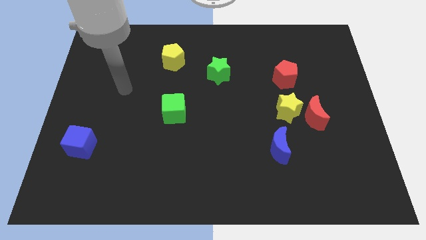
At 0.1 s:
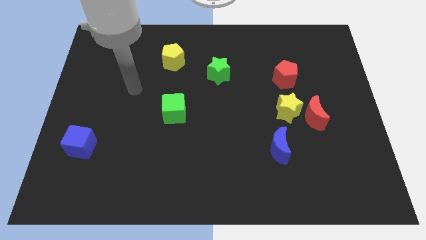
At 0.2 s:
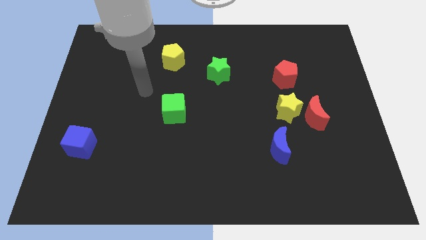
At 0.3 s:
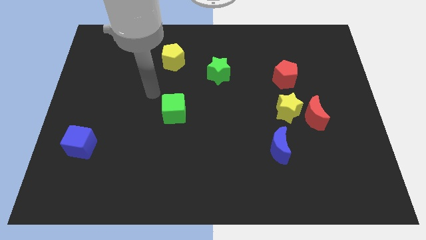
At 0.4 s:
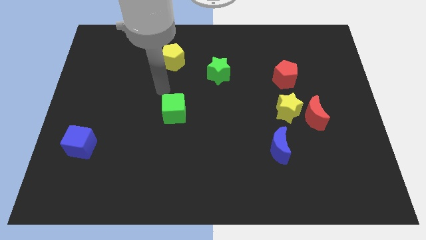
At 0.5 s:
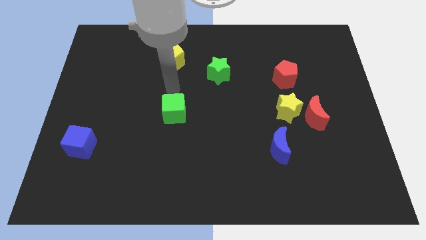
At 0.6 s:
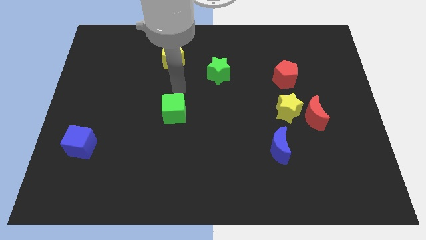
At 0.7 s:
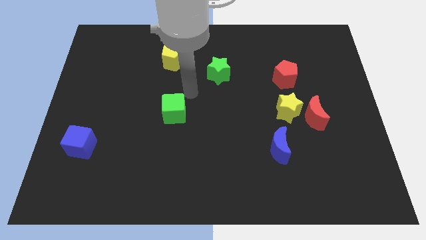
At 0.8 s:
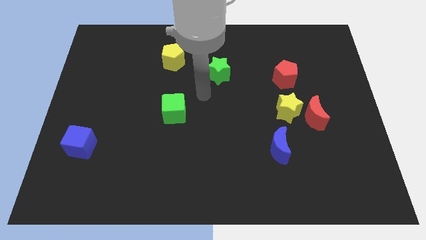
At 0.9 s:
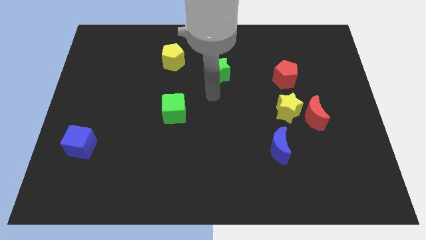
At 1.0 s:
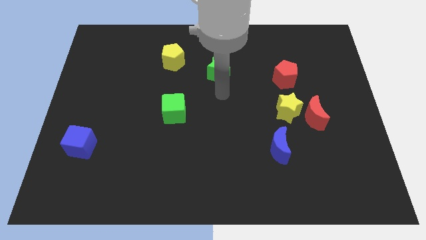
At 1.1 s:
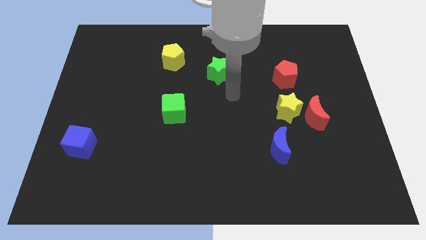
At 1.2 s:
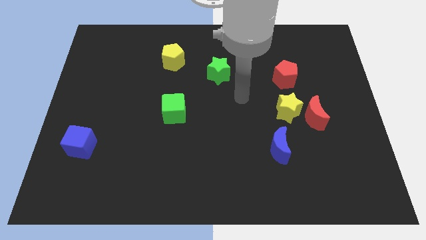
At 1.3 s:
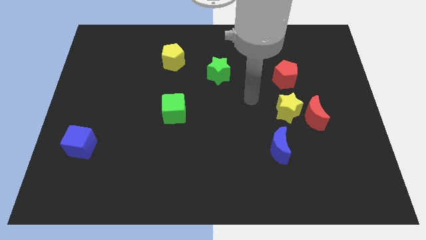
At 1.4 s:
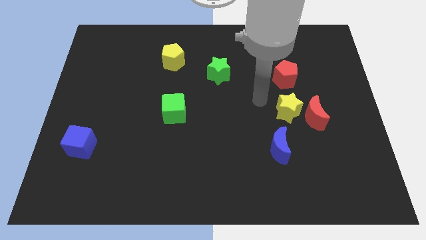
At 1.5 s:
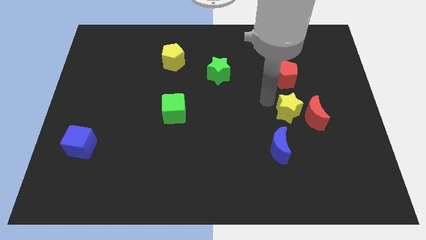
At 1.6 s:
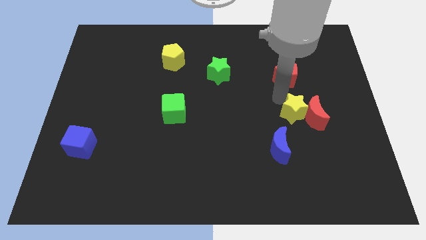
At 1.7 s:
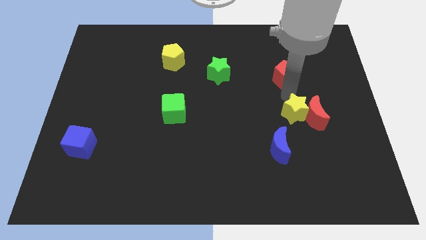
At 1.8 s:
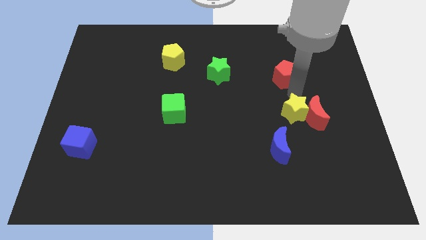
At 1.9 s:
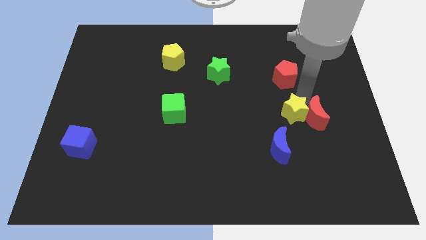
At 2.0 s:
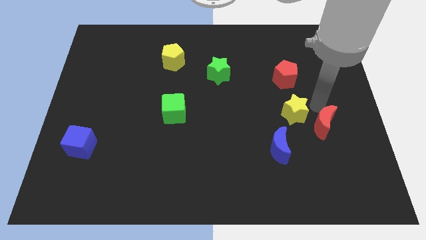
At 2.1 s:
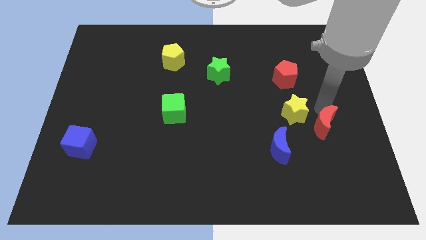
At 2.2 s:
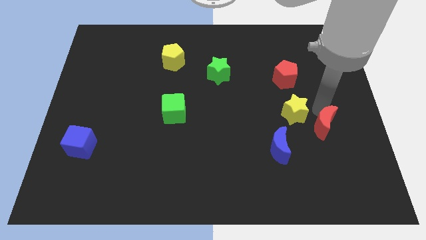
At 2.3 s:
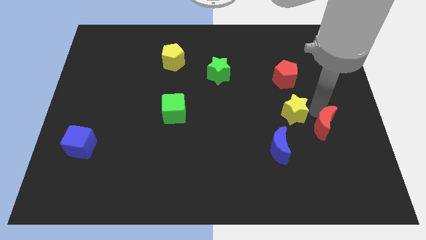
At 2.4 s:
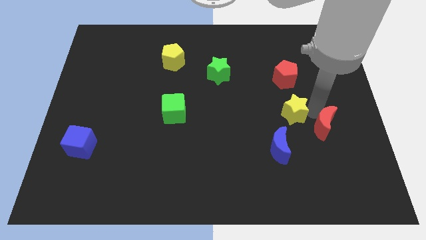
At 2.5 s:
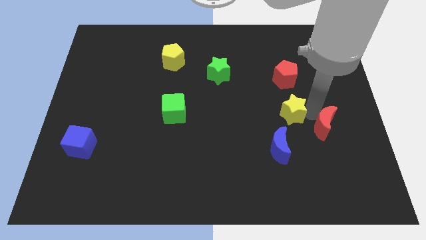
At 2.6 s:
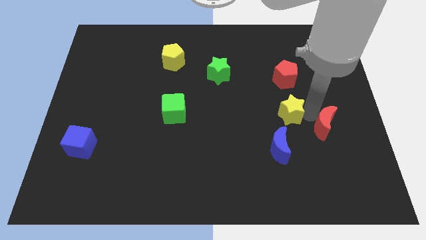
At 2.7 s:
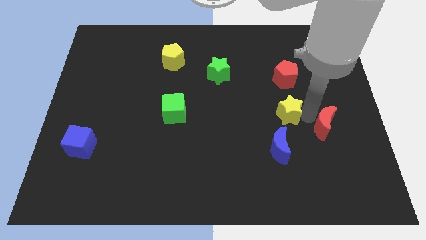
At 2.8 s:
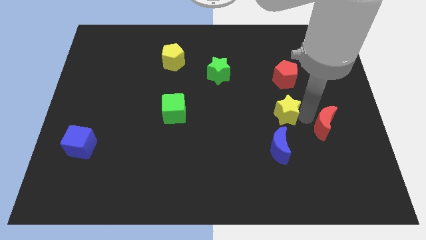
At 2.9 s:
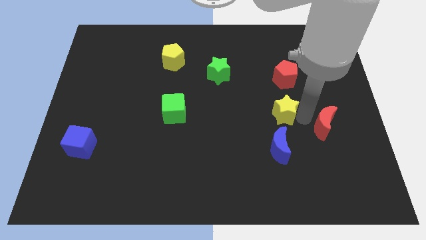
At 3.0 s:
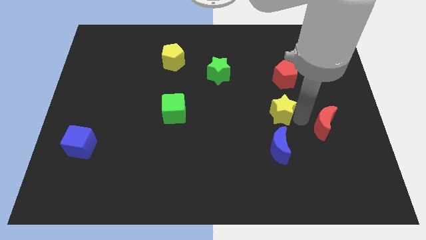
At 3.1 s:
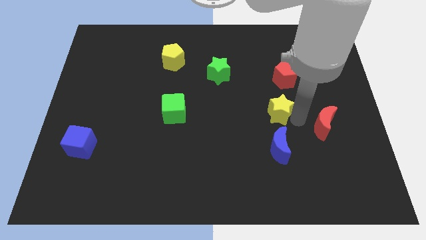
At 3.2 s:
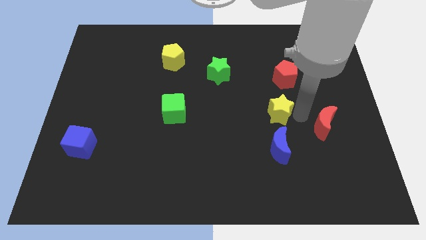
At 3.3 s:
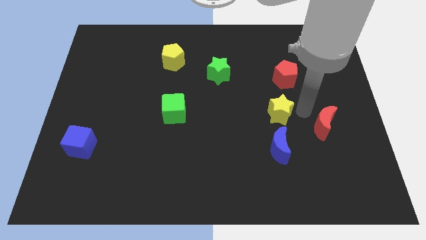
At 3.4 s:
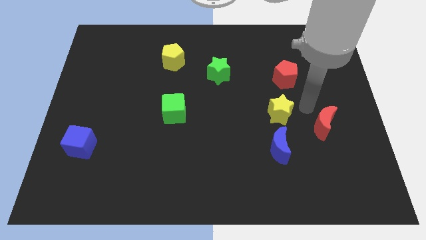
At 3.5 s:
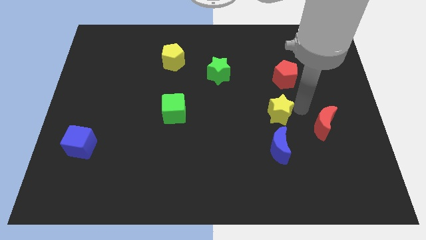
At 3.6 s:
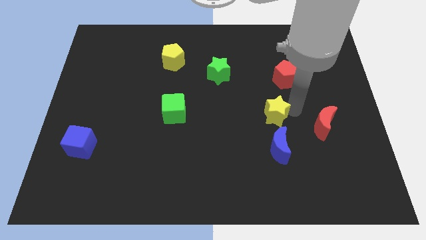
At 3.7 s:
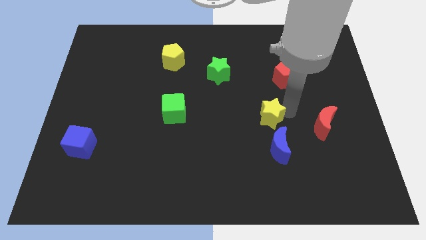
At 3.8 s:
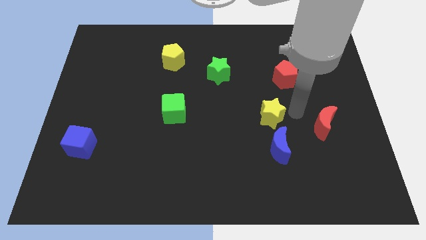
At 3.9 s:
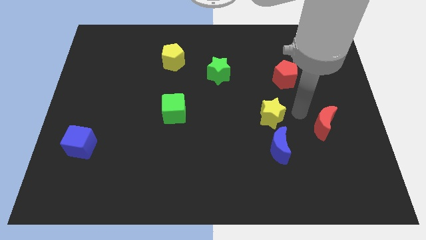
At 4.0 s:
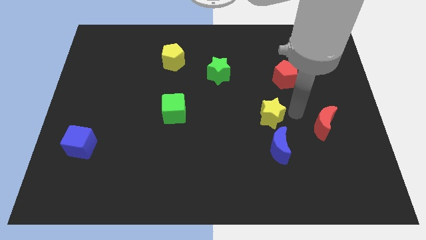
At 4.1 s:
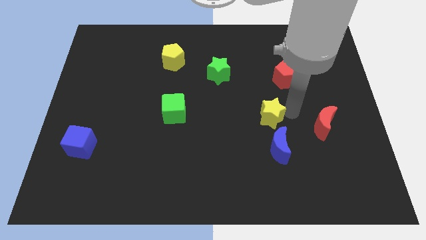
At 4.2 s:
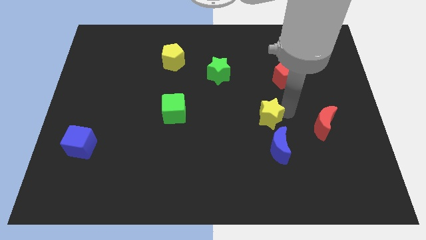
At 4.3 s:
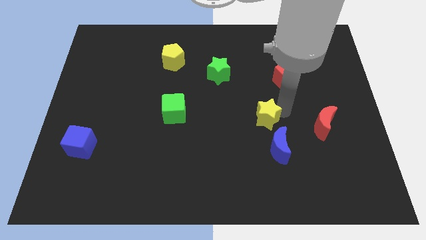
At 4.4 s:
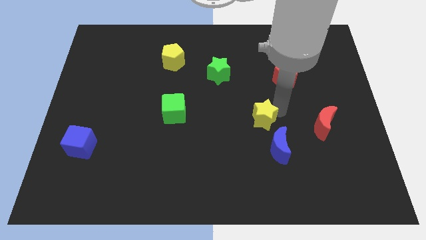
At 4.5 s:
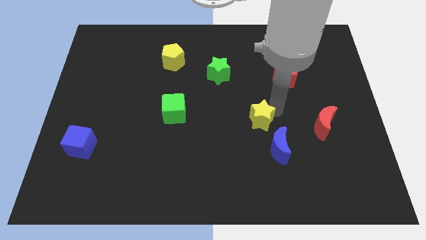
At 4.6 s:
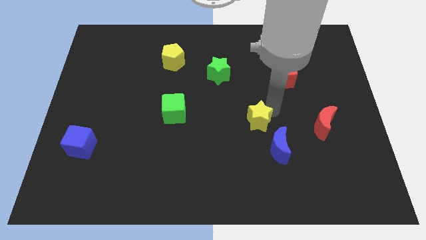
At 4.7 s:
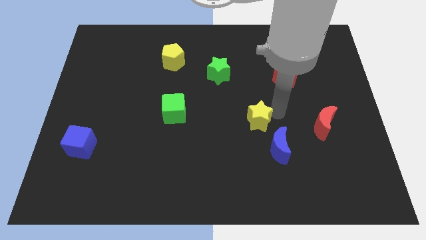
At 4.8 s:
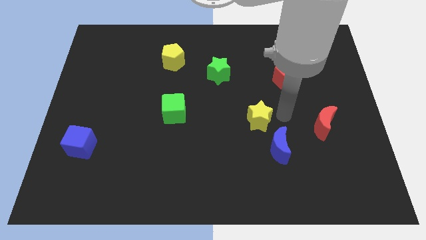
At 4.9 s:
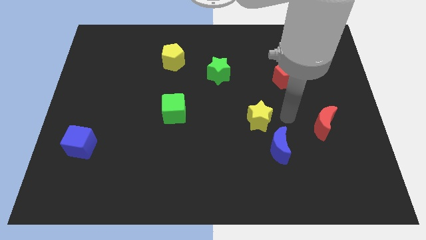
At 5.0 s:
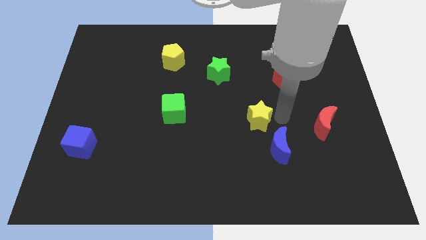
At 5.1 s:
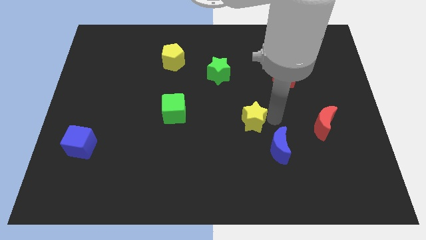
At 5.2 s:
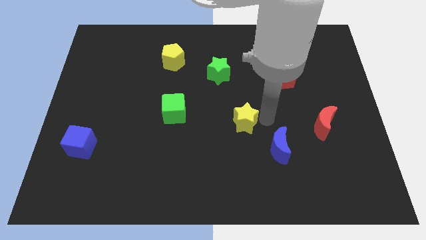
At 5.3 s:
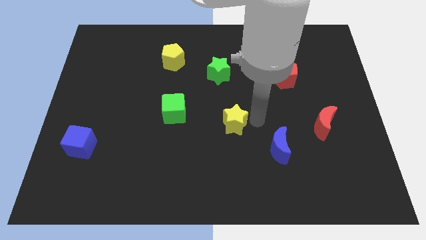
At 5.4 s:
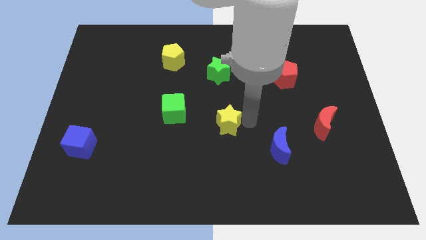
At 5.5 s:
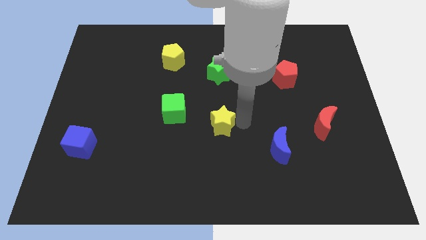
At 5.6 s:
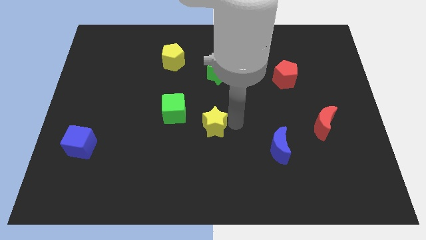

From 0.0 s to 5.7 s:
move the yellow star to the bottom right side of the green cube

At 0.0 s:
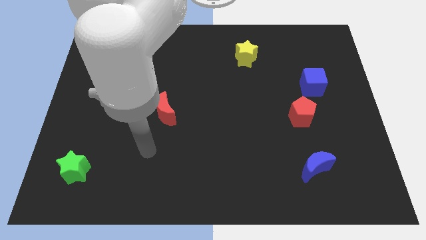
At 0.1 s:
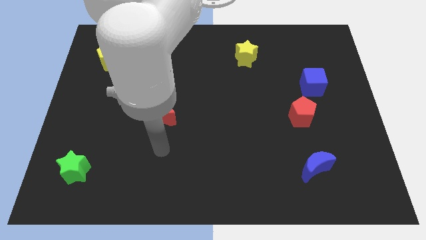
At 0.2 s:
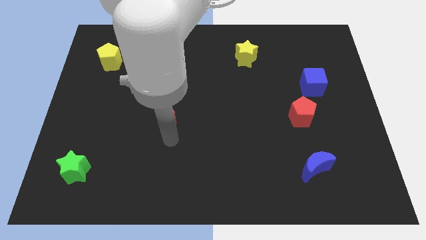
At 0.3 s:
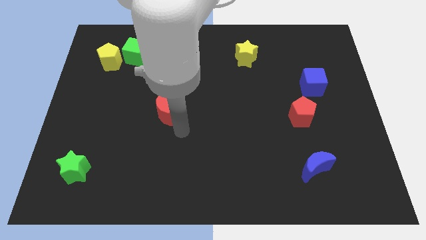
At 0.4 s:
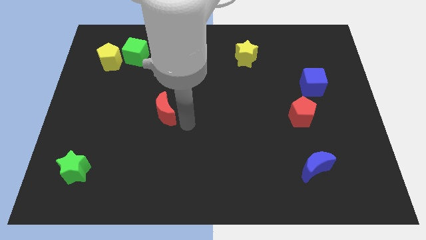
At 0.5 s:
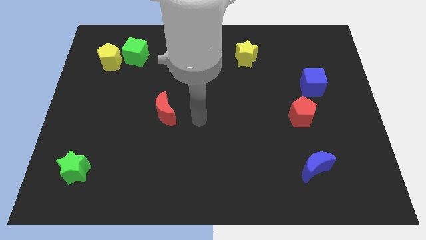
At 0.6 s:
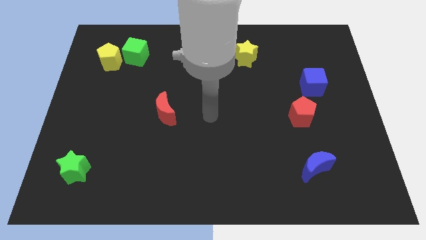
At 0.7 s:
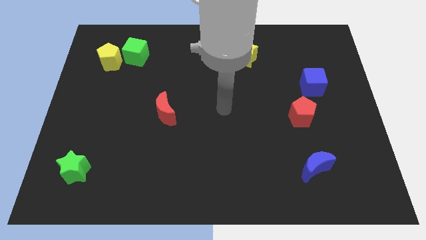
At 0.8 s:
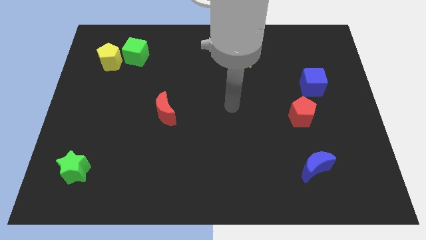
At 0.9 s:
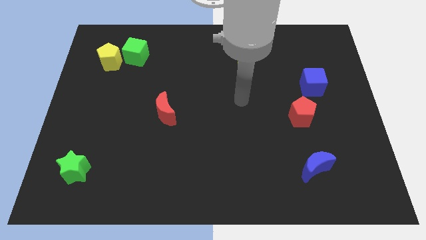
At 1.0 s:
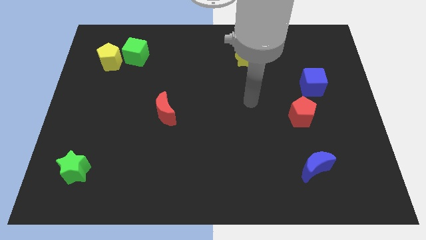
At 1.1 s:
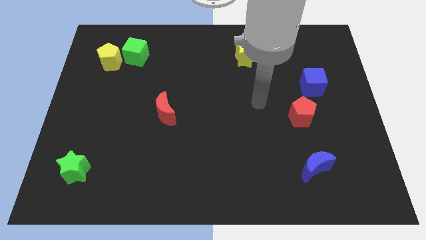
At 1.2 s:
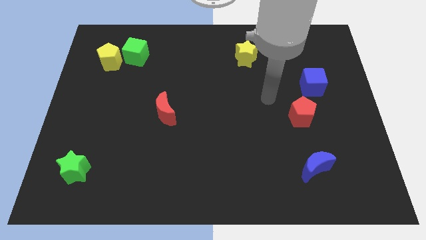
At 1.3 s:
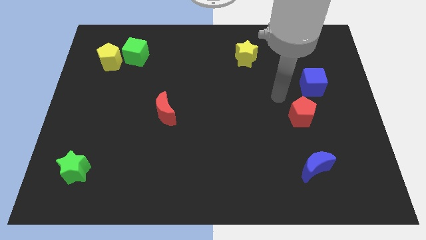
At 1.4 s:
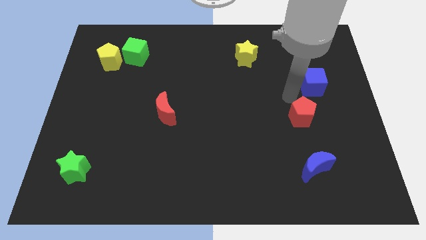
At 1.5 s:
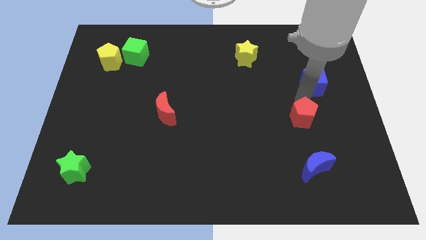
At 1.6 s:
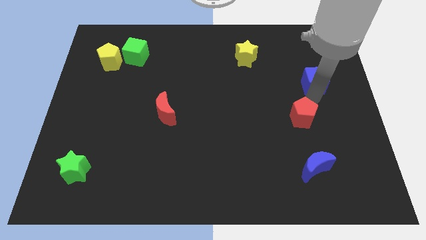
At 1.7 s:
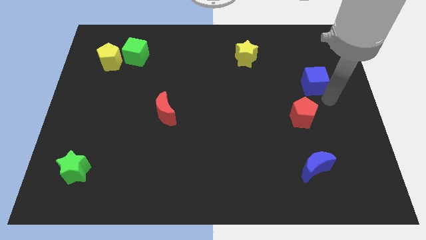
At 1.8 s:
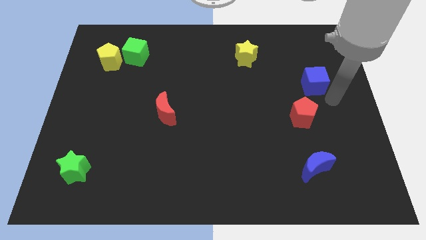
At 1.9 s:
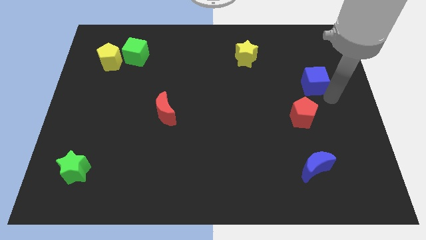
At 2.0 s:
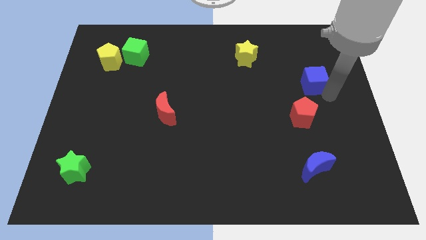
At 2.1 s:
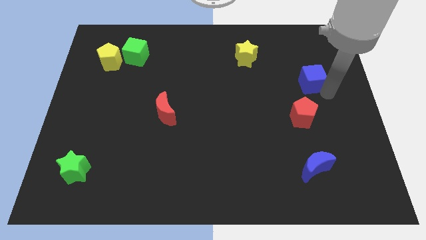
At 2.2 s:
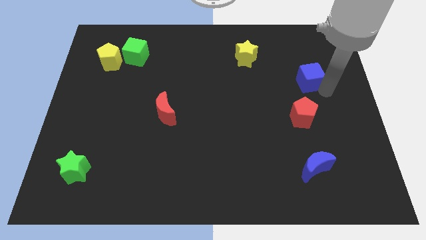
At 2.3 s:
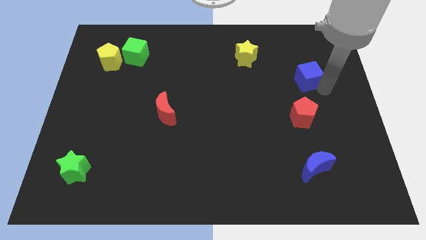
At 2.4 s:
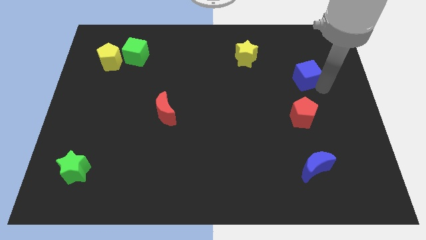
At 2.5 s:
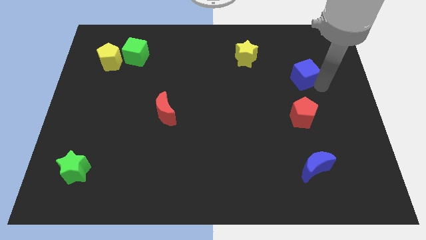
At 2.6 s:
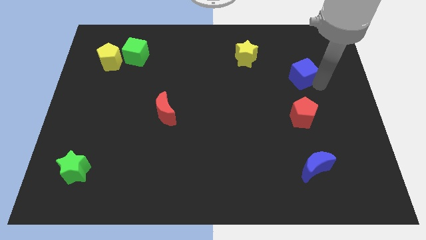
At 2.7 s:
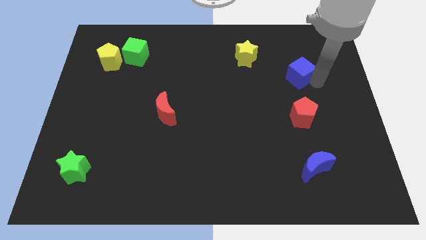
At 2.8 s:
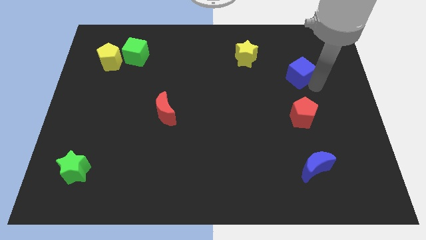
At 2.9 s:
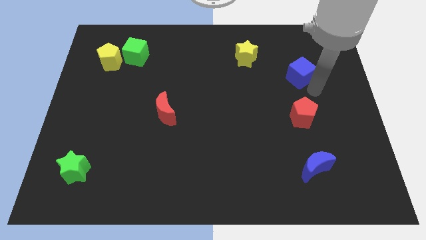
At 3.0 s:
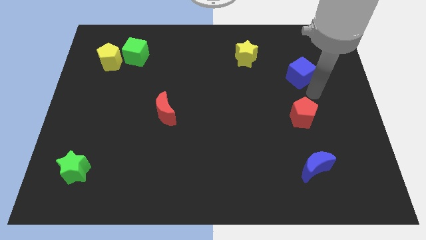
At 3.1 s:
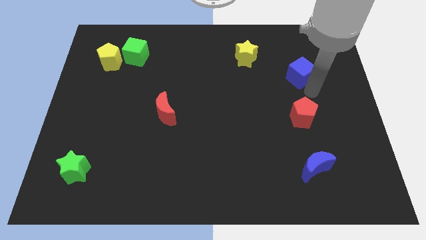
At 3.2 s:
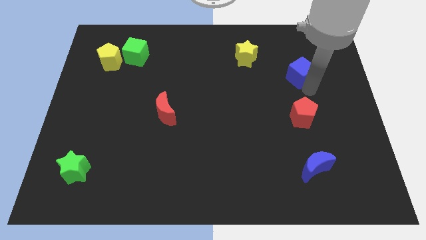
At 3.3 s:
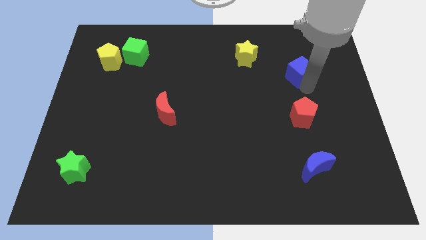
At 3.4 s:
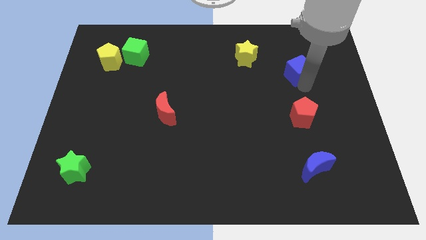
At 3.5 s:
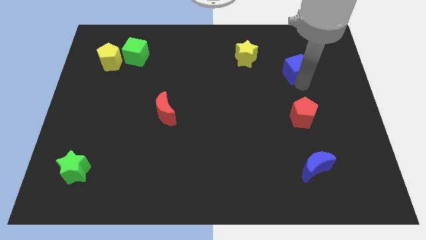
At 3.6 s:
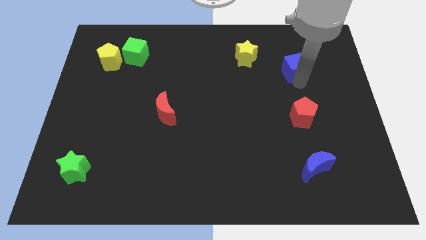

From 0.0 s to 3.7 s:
slide the blue cube right of the yellow star
